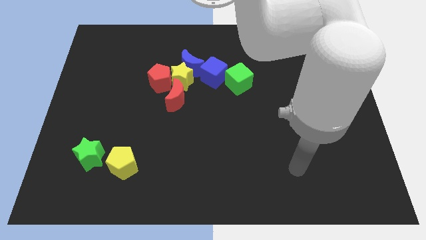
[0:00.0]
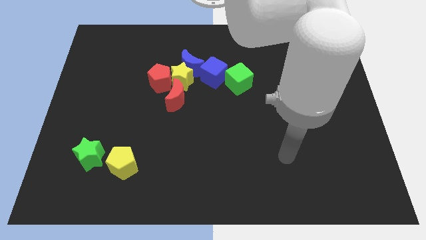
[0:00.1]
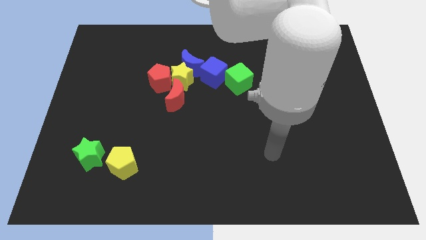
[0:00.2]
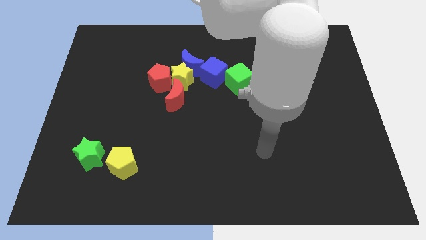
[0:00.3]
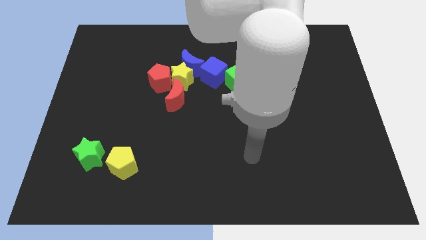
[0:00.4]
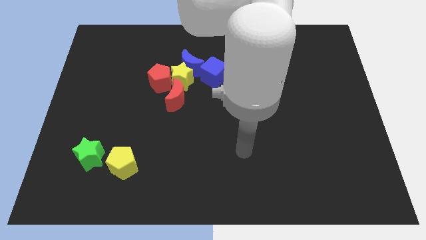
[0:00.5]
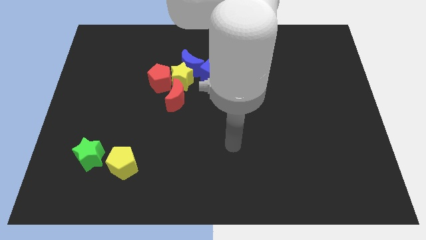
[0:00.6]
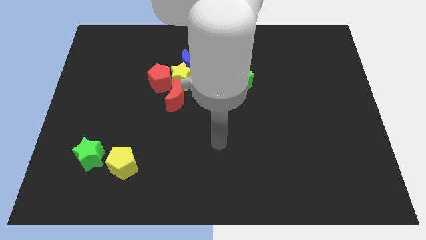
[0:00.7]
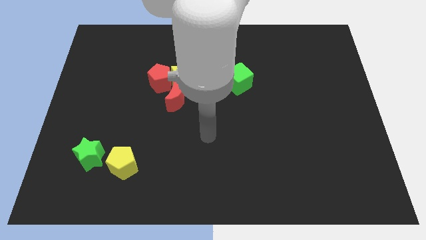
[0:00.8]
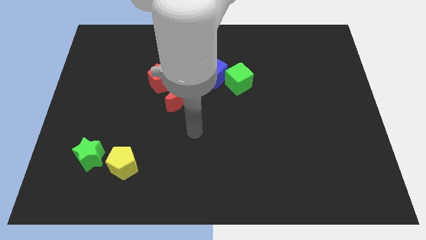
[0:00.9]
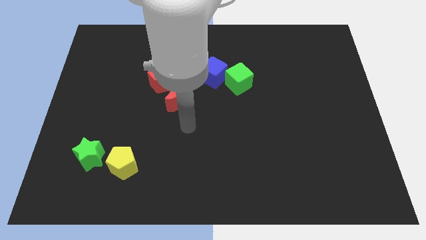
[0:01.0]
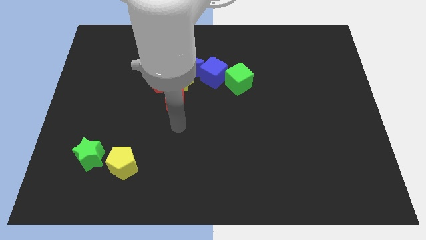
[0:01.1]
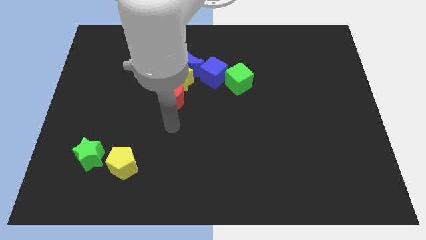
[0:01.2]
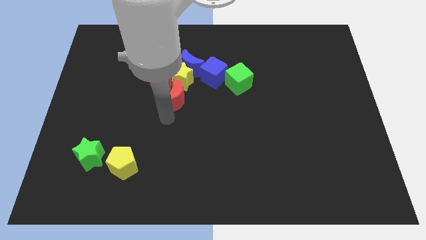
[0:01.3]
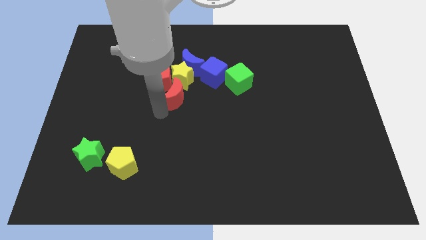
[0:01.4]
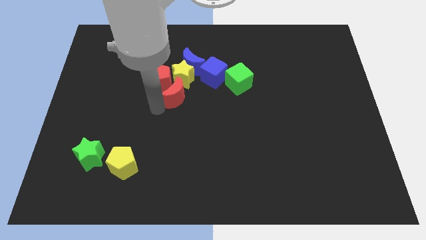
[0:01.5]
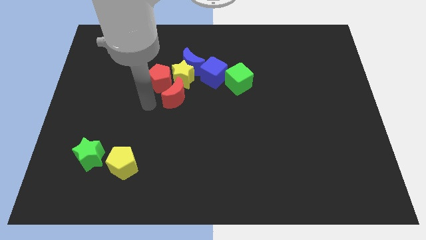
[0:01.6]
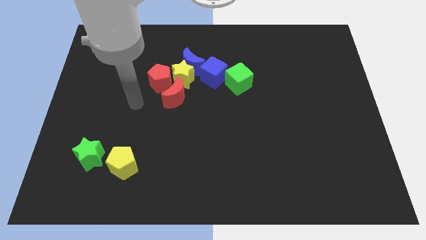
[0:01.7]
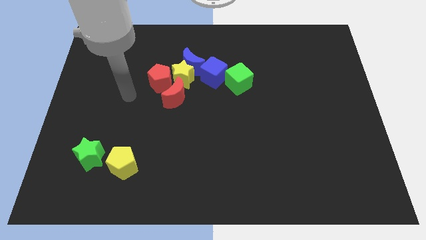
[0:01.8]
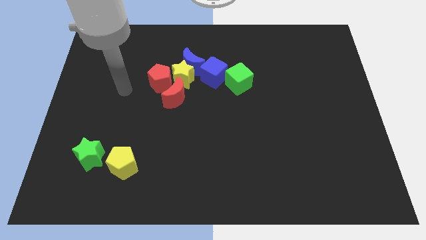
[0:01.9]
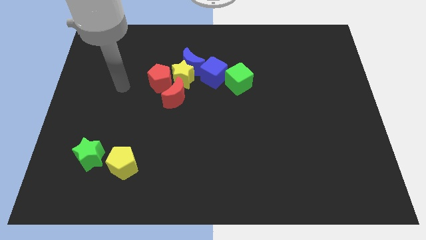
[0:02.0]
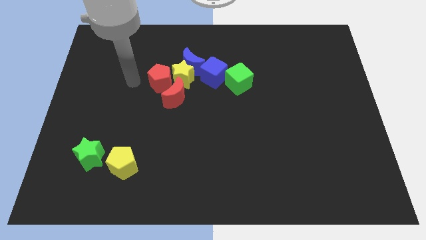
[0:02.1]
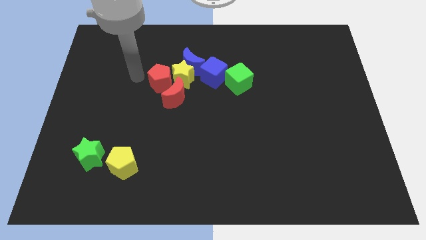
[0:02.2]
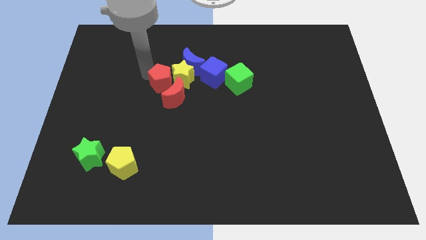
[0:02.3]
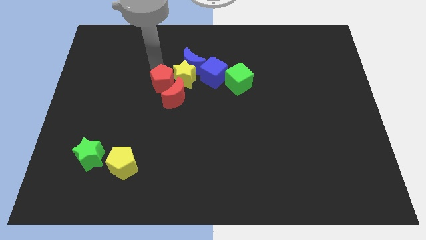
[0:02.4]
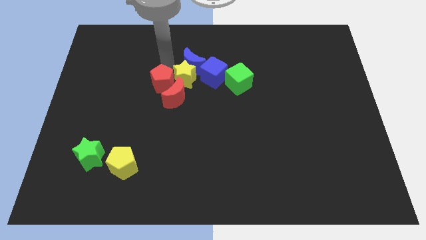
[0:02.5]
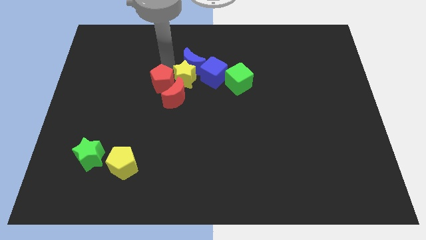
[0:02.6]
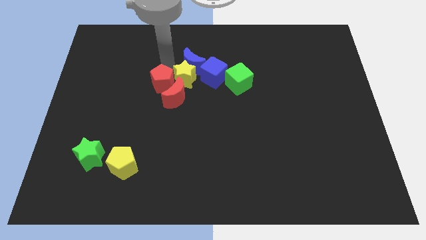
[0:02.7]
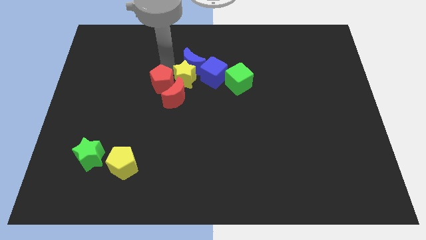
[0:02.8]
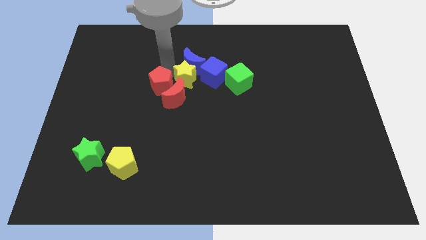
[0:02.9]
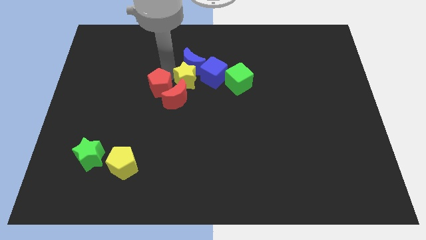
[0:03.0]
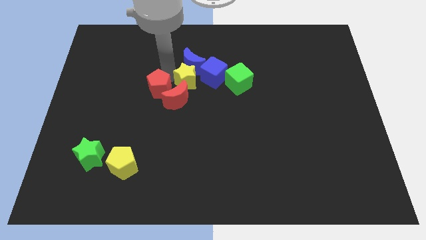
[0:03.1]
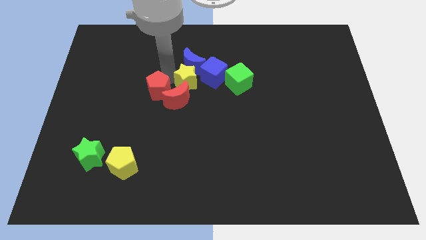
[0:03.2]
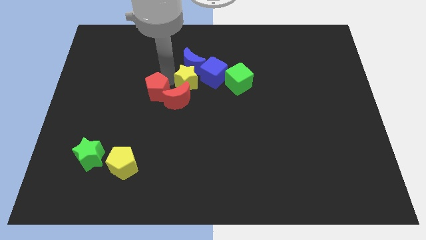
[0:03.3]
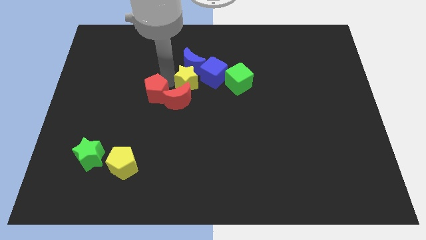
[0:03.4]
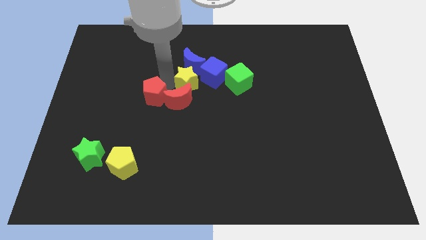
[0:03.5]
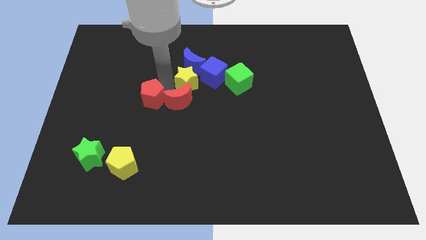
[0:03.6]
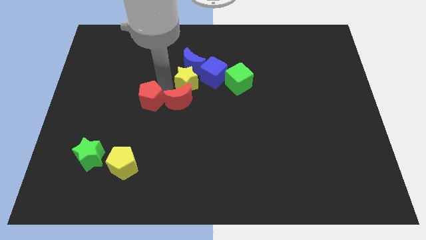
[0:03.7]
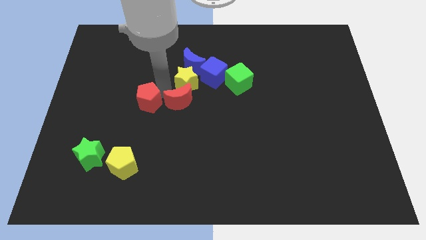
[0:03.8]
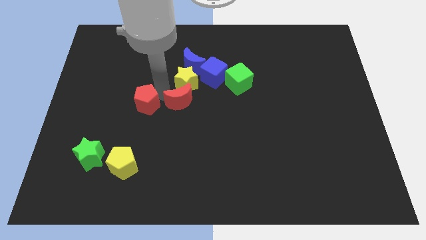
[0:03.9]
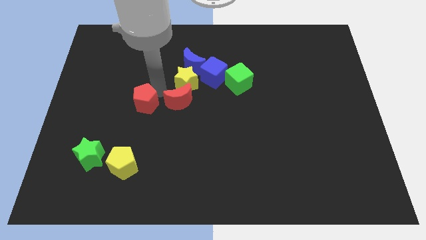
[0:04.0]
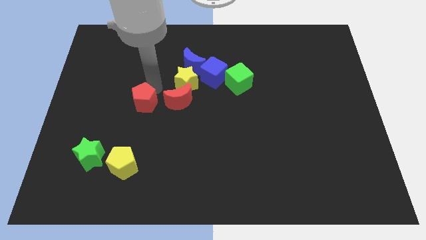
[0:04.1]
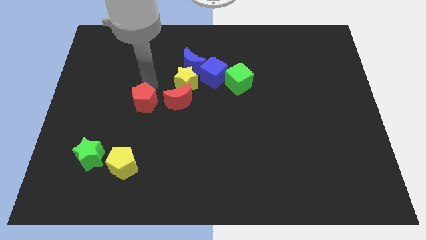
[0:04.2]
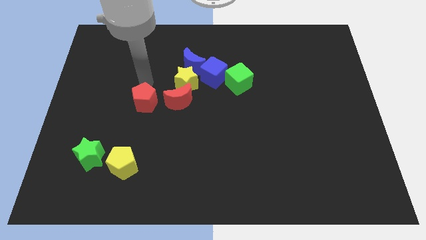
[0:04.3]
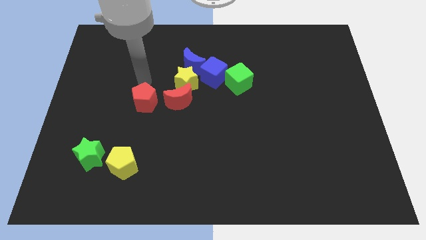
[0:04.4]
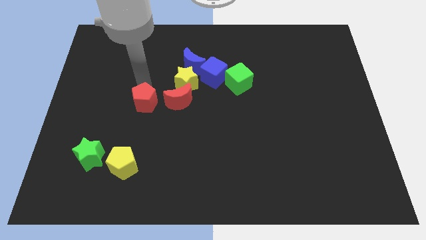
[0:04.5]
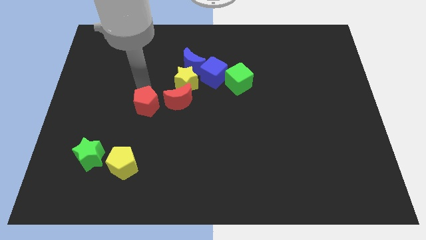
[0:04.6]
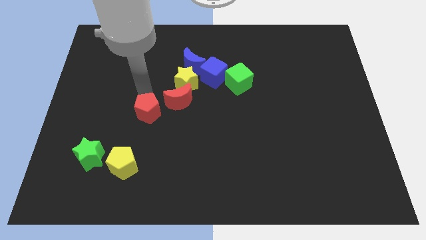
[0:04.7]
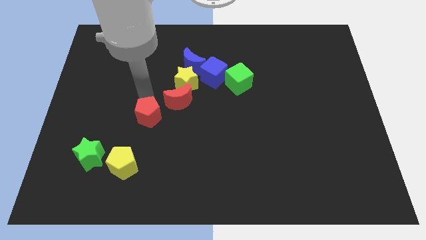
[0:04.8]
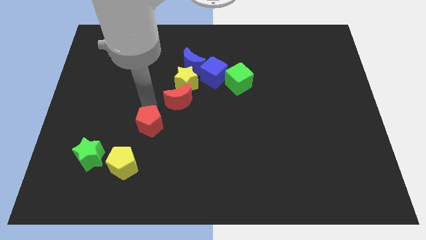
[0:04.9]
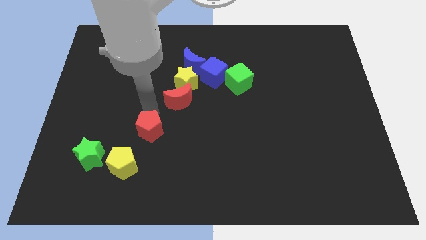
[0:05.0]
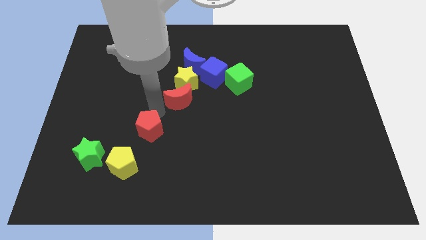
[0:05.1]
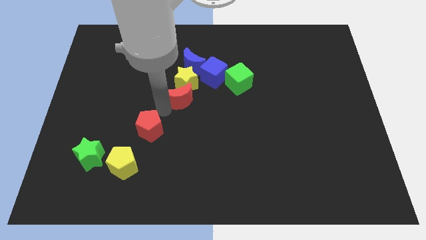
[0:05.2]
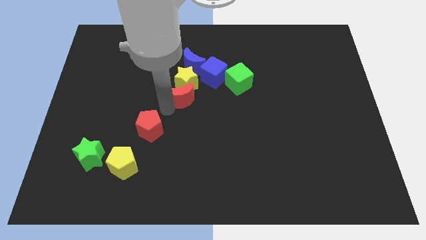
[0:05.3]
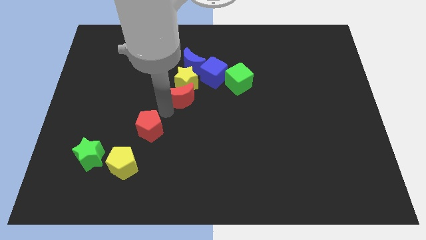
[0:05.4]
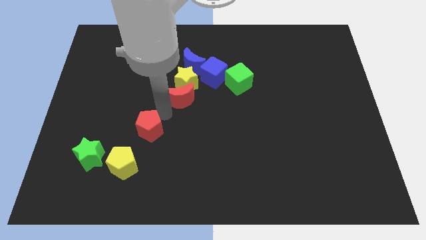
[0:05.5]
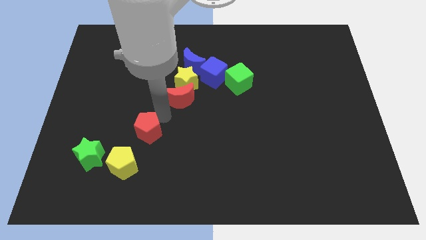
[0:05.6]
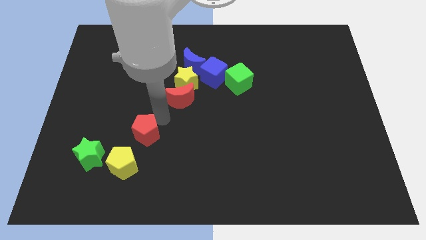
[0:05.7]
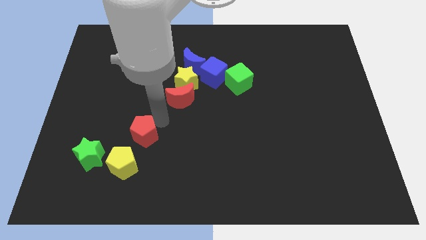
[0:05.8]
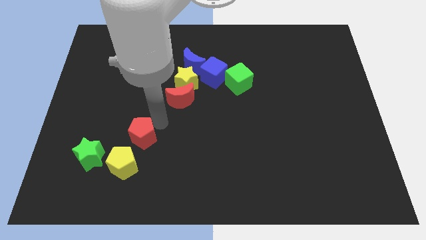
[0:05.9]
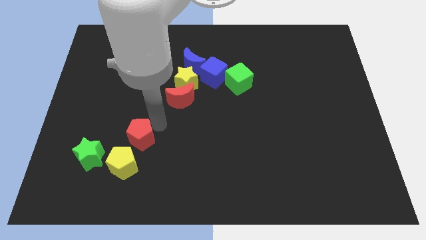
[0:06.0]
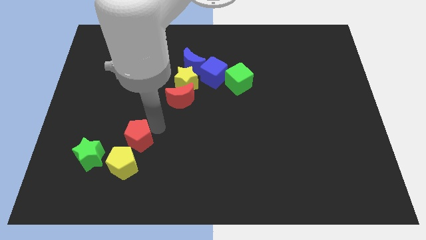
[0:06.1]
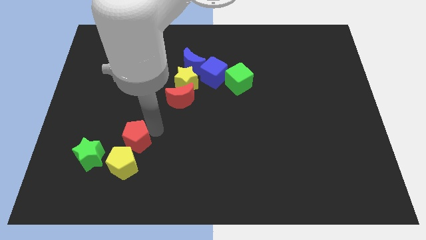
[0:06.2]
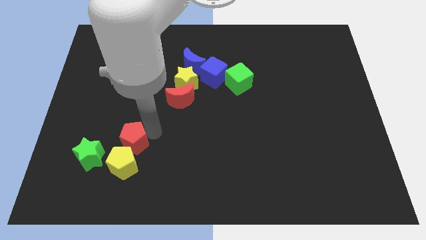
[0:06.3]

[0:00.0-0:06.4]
slide the red pentagon close to the yellow pentagon

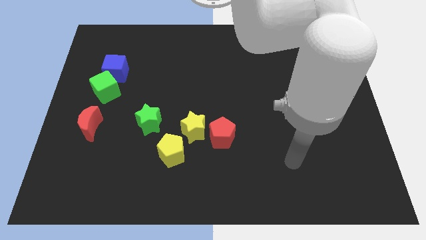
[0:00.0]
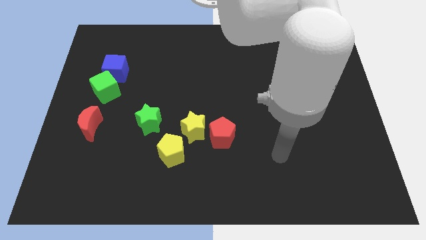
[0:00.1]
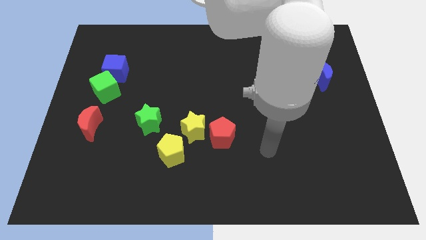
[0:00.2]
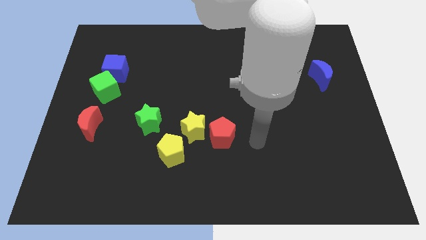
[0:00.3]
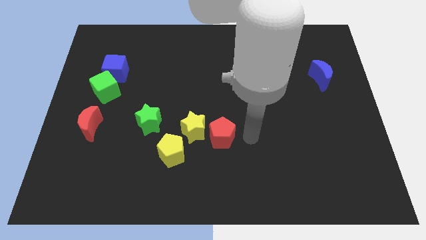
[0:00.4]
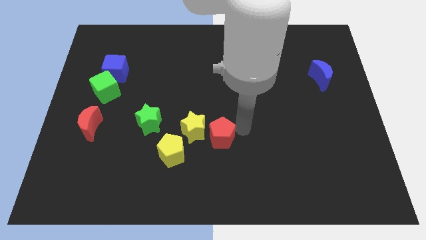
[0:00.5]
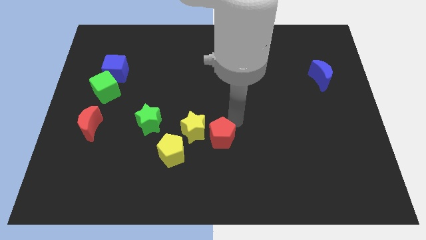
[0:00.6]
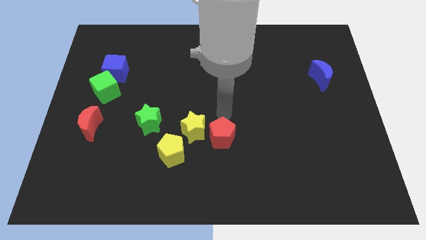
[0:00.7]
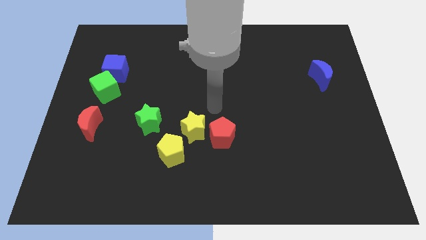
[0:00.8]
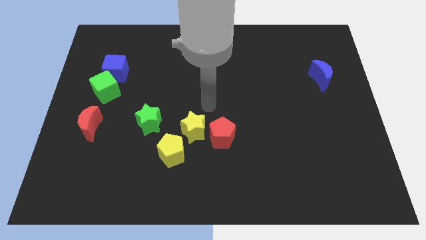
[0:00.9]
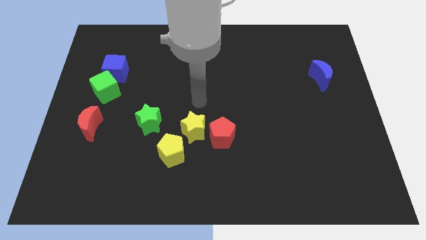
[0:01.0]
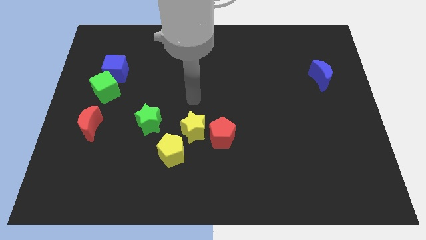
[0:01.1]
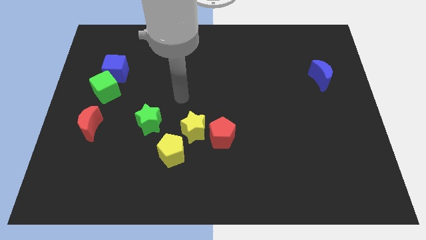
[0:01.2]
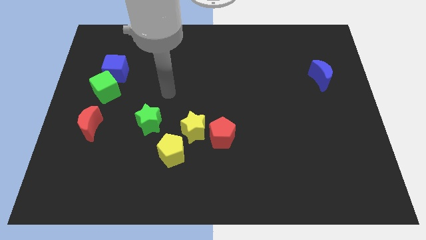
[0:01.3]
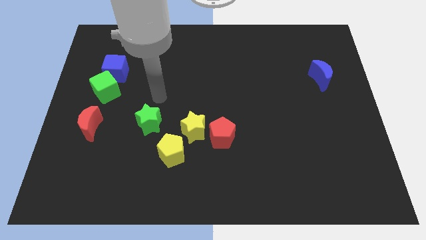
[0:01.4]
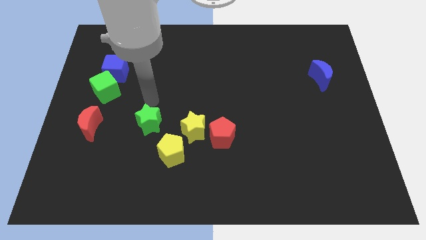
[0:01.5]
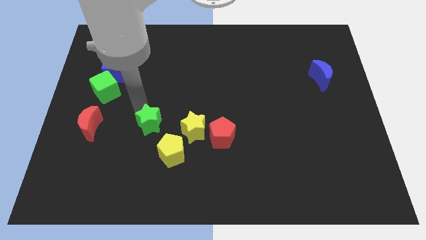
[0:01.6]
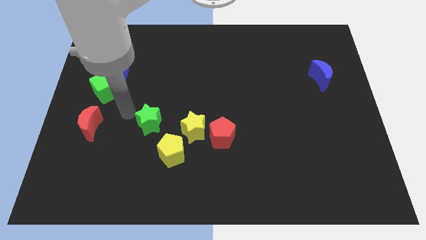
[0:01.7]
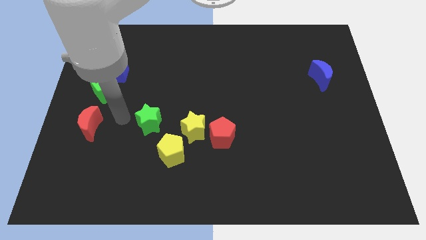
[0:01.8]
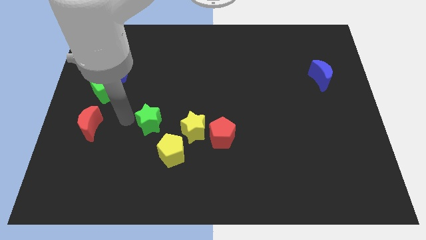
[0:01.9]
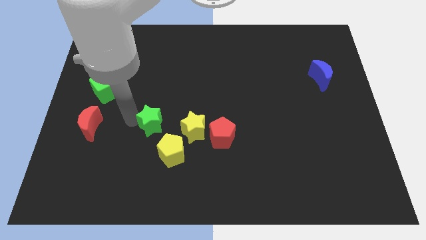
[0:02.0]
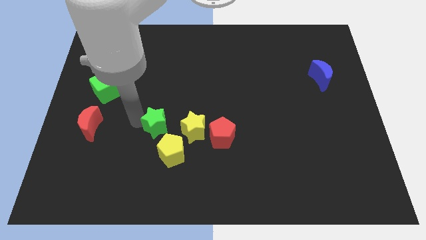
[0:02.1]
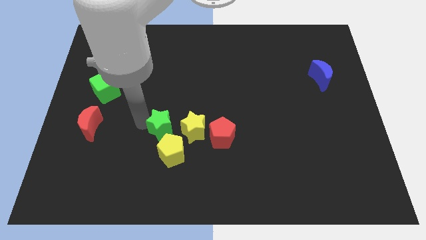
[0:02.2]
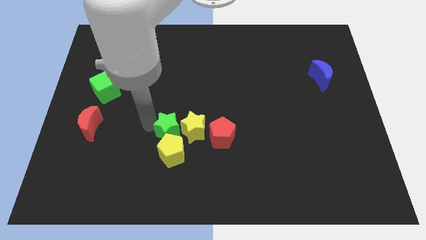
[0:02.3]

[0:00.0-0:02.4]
slide the green star next to the yellow star
